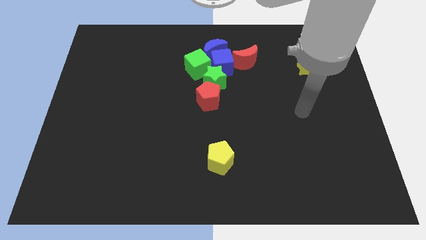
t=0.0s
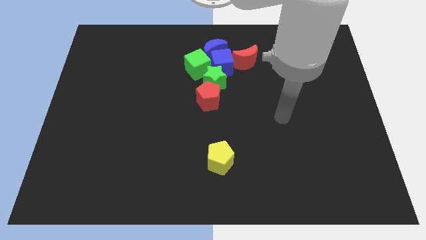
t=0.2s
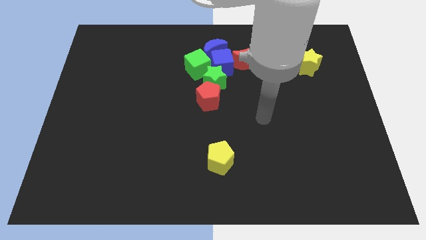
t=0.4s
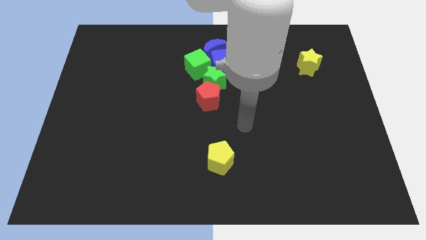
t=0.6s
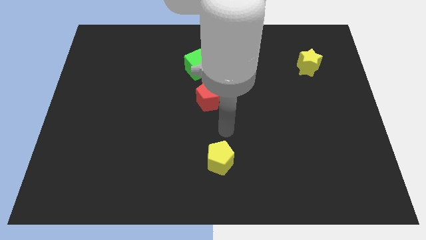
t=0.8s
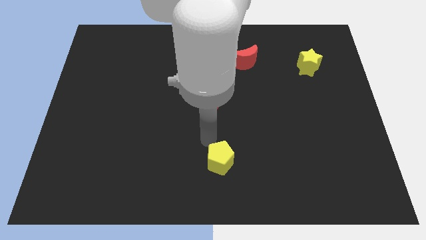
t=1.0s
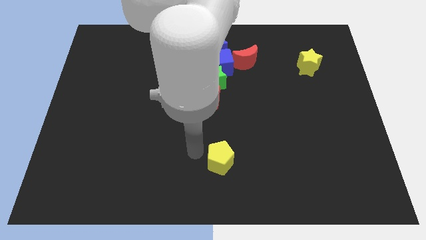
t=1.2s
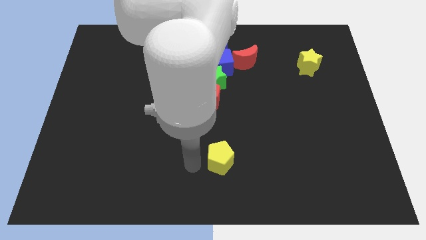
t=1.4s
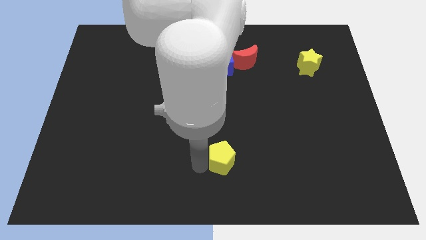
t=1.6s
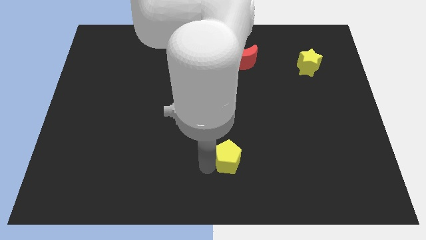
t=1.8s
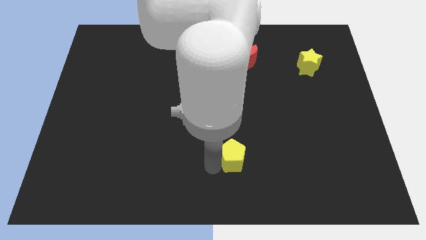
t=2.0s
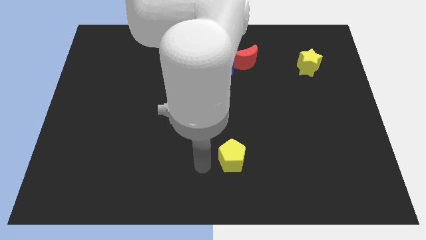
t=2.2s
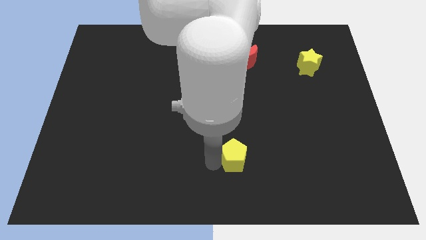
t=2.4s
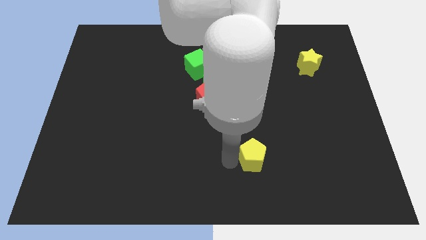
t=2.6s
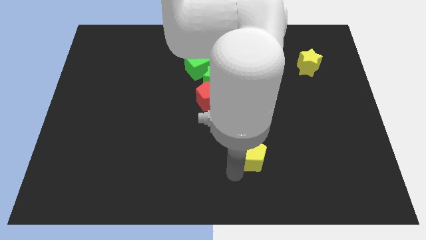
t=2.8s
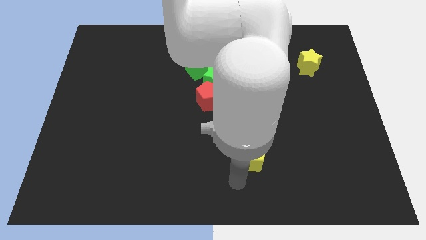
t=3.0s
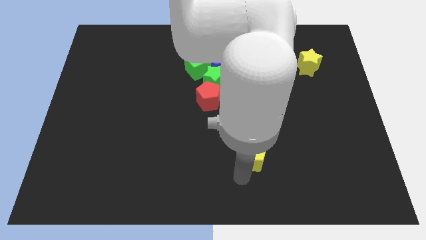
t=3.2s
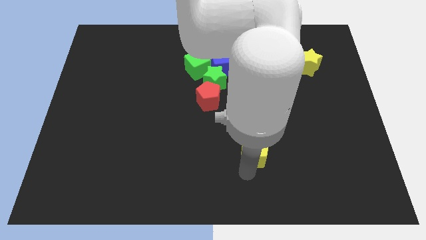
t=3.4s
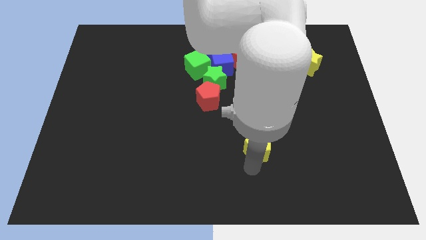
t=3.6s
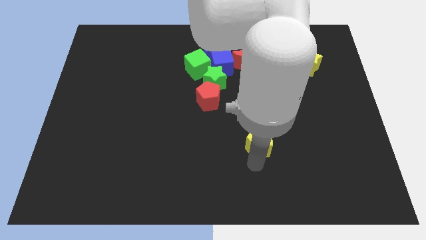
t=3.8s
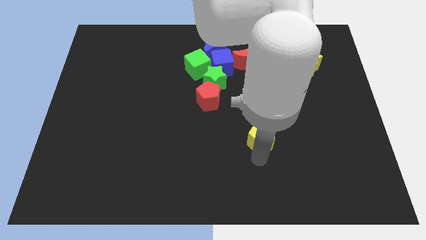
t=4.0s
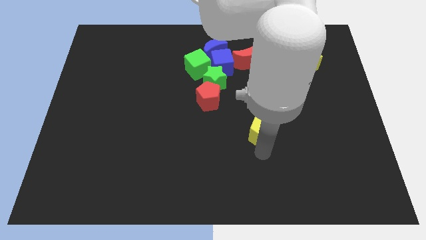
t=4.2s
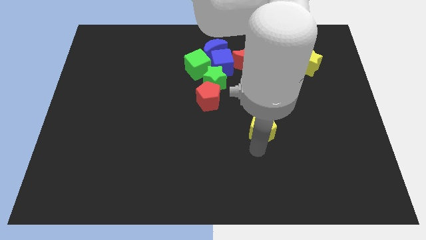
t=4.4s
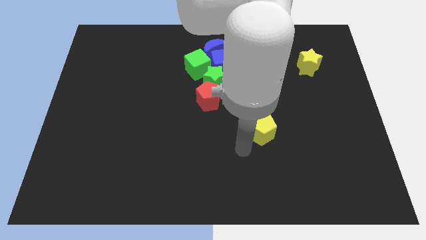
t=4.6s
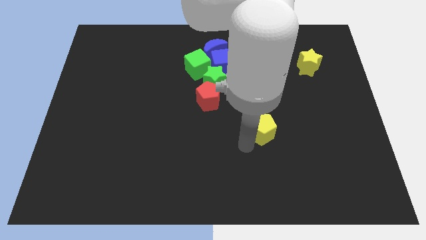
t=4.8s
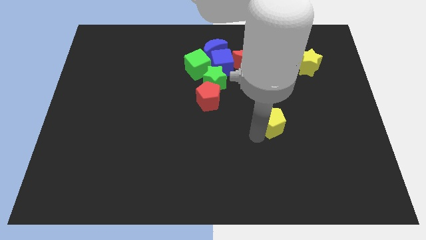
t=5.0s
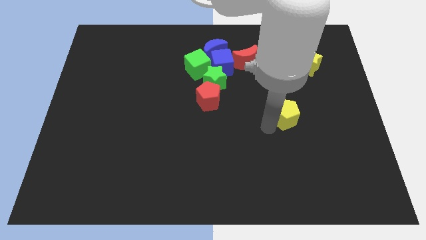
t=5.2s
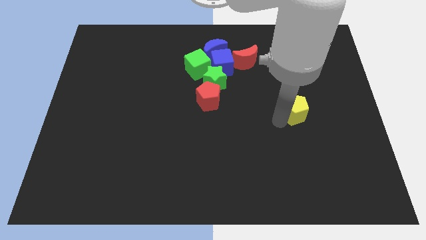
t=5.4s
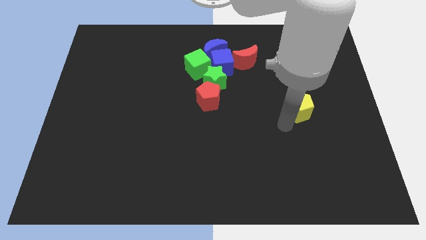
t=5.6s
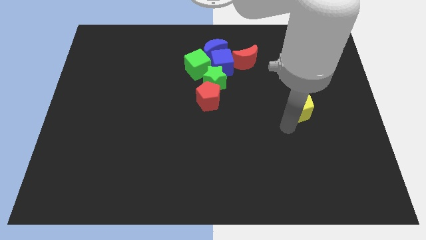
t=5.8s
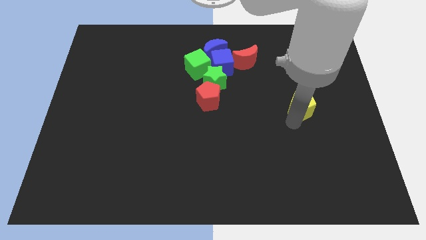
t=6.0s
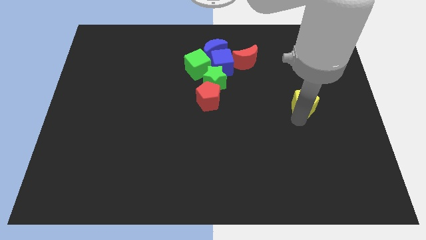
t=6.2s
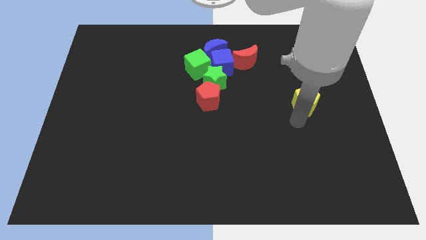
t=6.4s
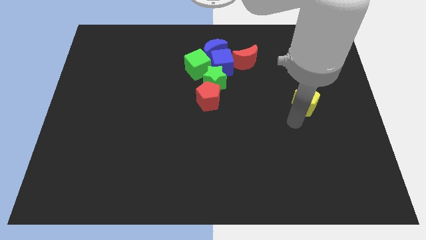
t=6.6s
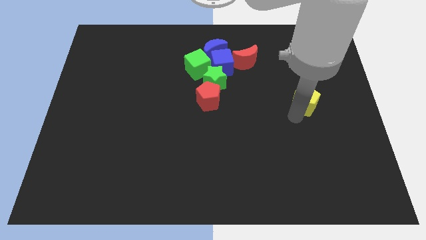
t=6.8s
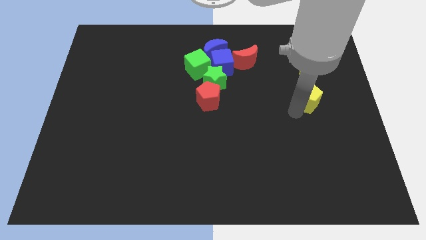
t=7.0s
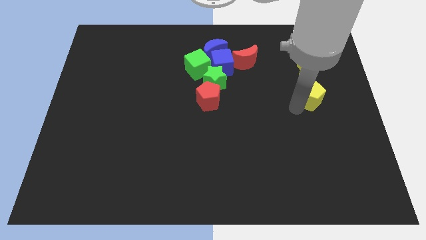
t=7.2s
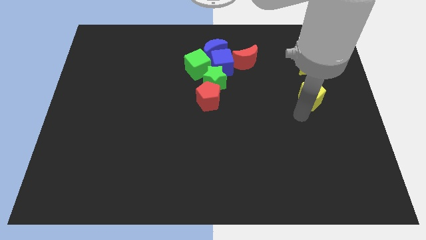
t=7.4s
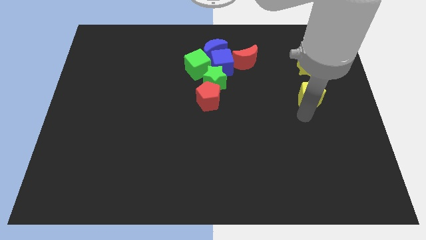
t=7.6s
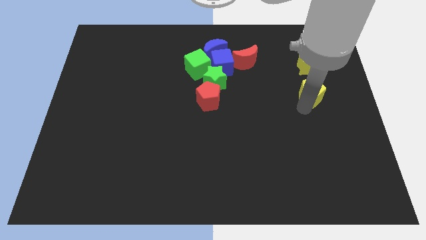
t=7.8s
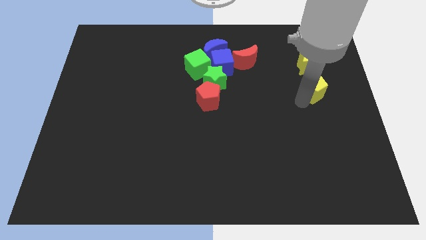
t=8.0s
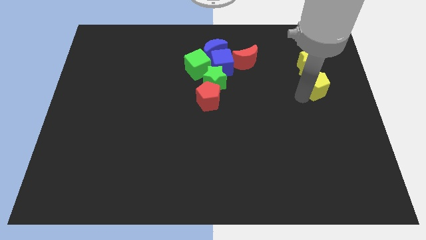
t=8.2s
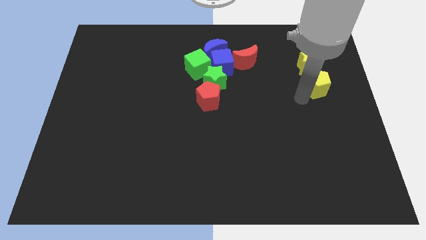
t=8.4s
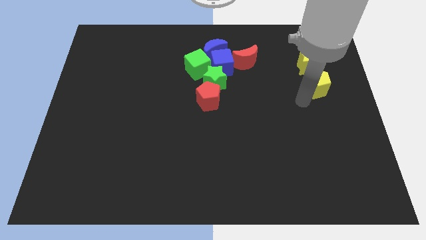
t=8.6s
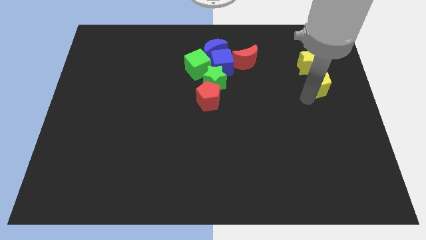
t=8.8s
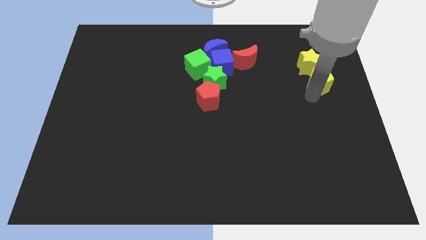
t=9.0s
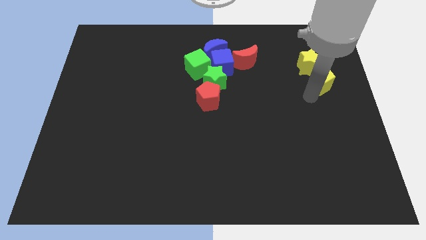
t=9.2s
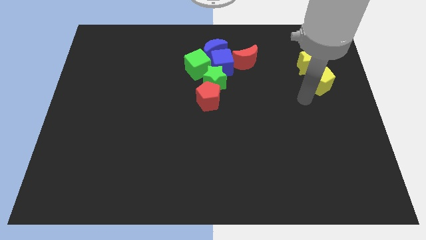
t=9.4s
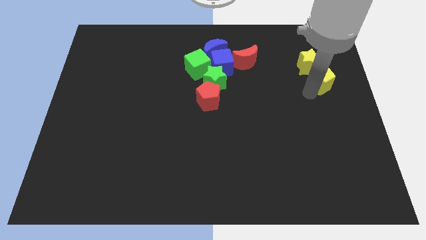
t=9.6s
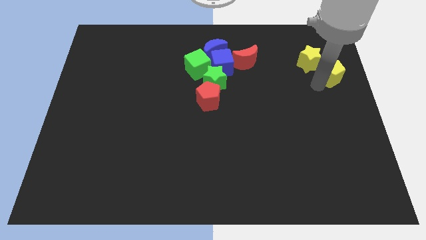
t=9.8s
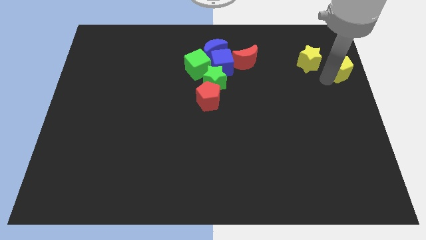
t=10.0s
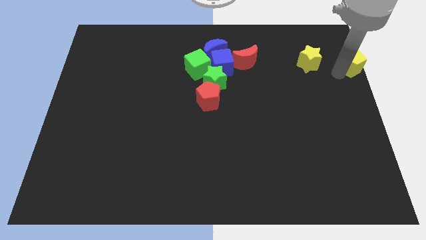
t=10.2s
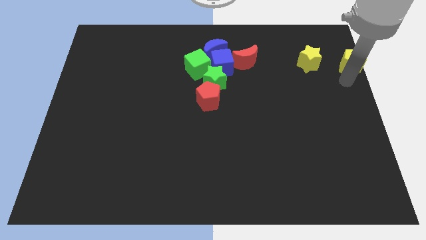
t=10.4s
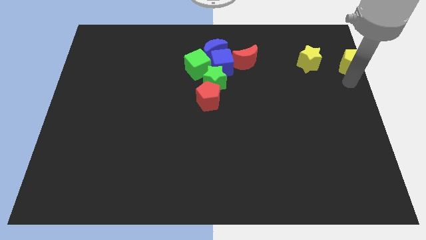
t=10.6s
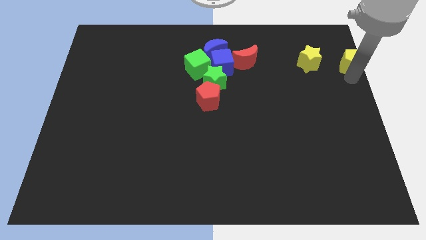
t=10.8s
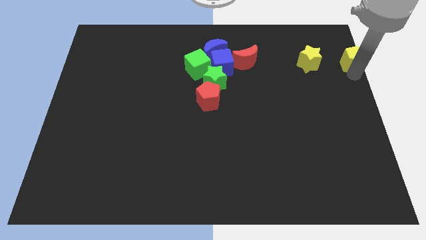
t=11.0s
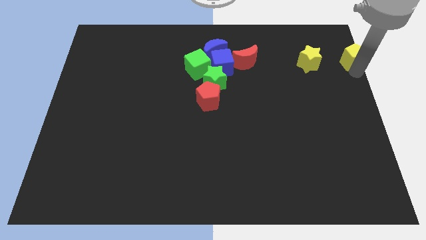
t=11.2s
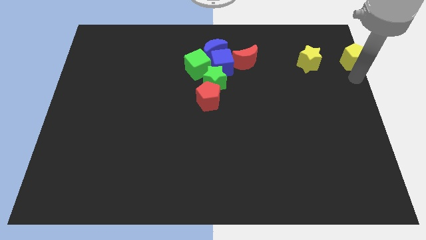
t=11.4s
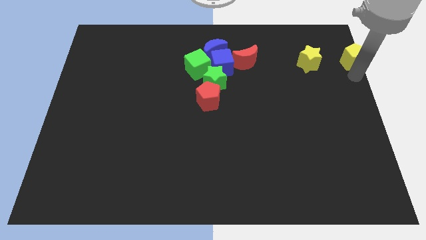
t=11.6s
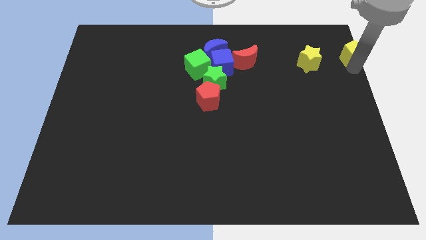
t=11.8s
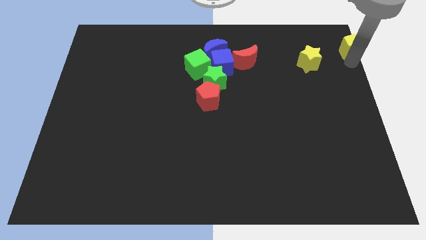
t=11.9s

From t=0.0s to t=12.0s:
slide the yellow pentagon to the top right of the board
